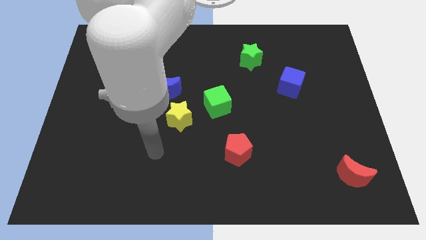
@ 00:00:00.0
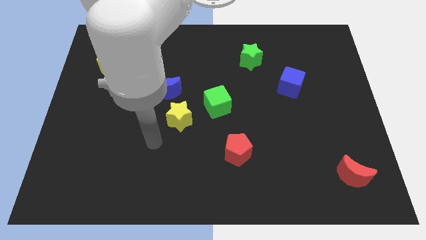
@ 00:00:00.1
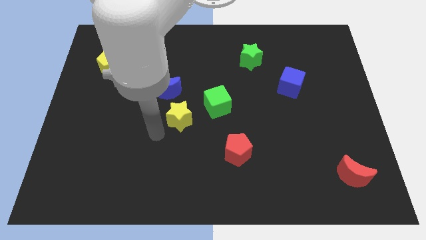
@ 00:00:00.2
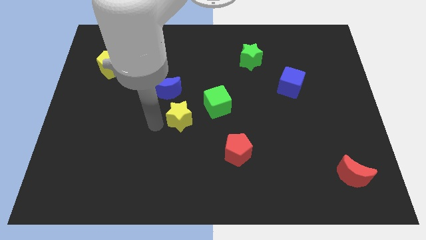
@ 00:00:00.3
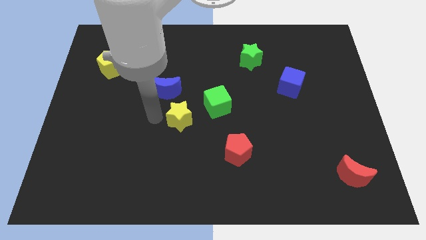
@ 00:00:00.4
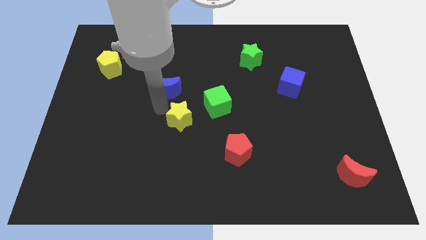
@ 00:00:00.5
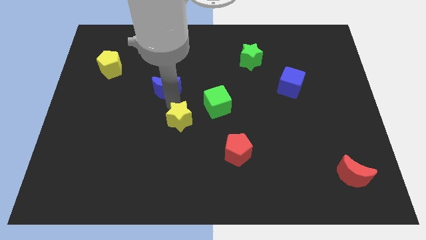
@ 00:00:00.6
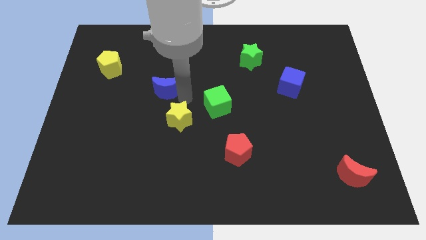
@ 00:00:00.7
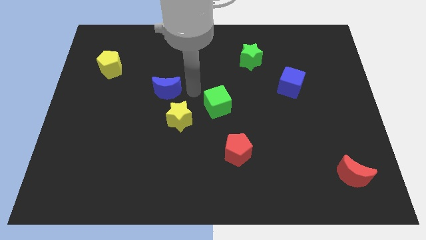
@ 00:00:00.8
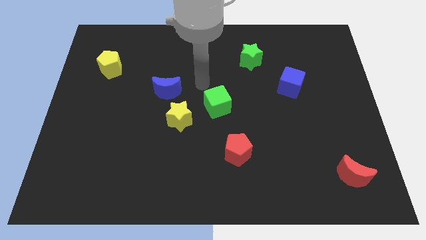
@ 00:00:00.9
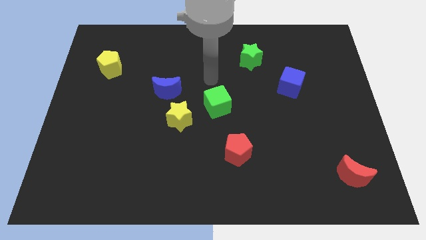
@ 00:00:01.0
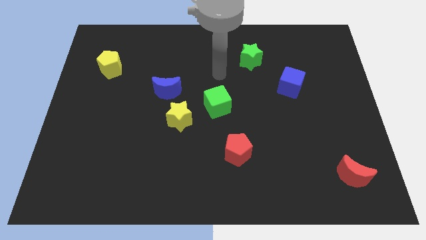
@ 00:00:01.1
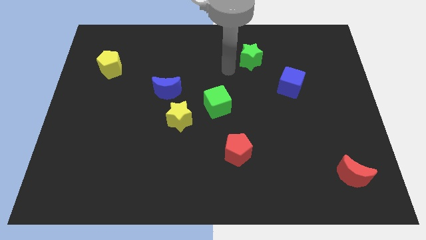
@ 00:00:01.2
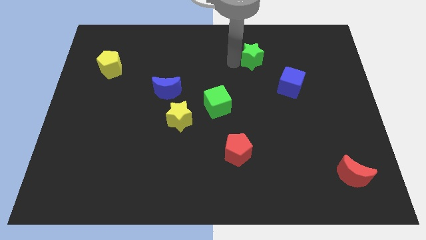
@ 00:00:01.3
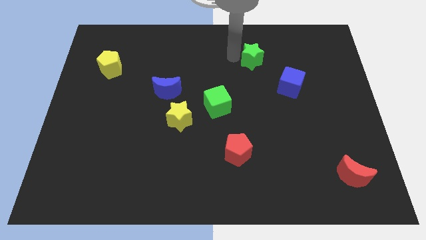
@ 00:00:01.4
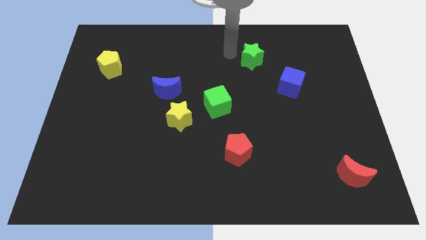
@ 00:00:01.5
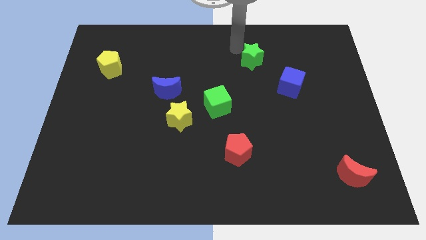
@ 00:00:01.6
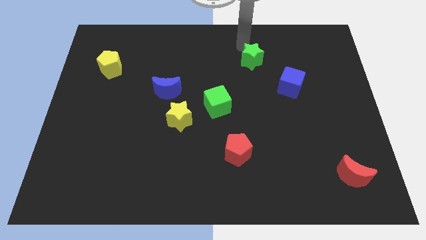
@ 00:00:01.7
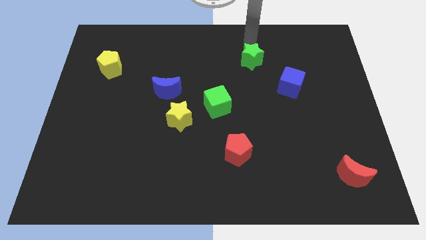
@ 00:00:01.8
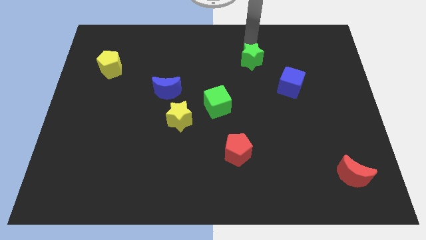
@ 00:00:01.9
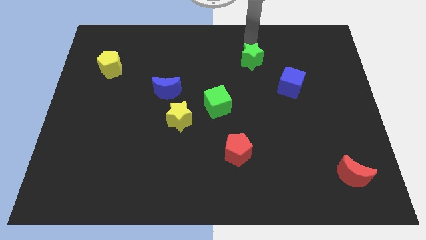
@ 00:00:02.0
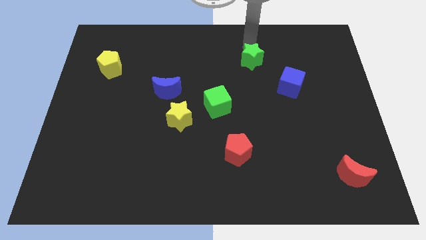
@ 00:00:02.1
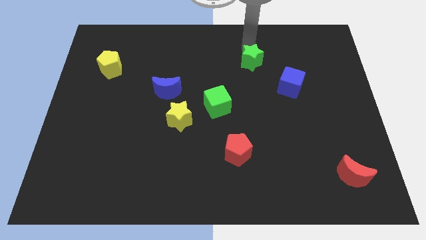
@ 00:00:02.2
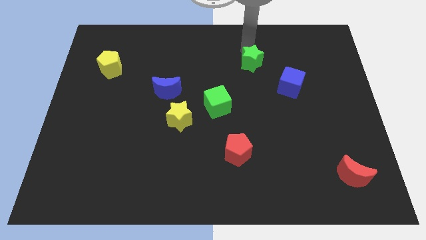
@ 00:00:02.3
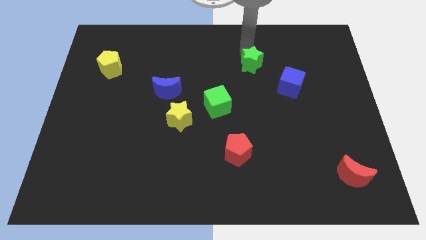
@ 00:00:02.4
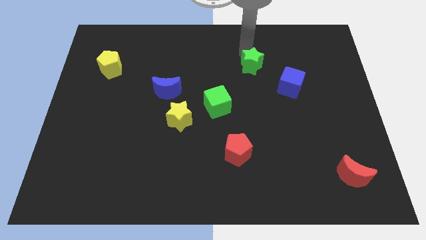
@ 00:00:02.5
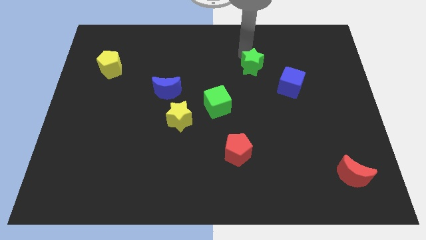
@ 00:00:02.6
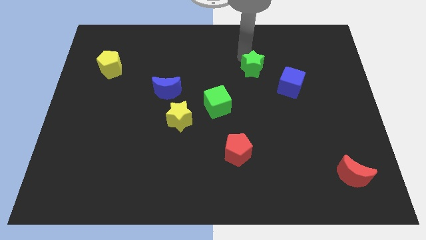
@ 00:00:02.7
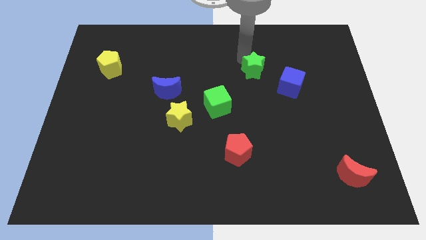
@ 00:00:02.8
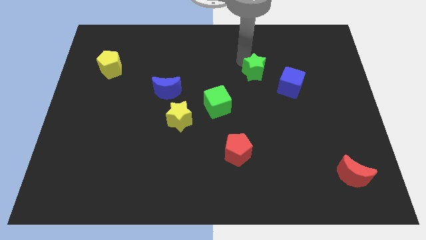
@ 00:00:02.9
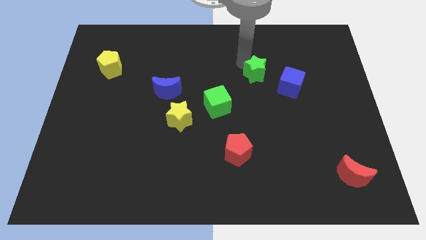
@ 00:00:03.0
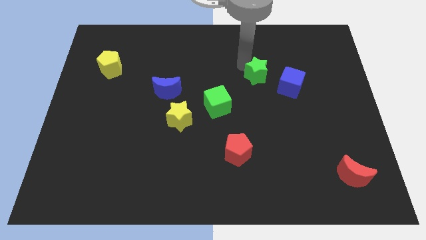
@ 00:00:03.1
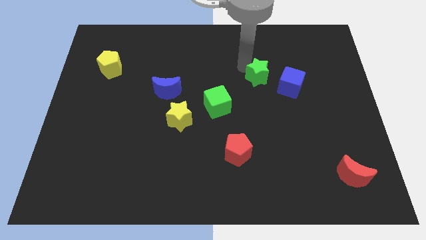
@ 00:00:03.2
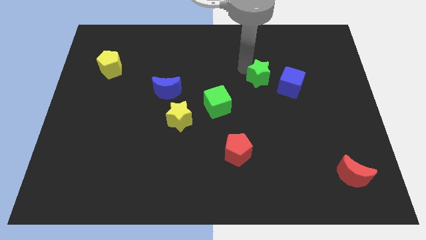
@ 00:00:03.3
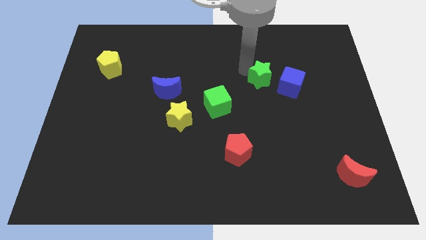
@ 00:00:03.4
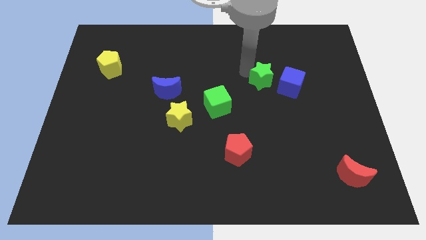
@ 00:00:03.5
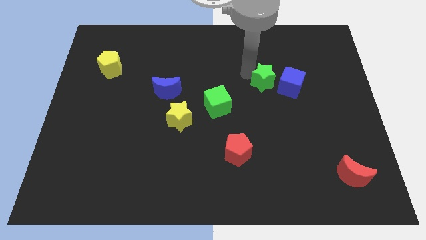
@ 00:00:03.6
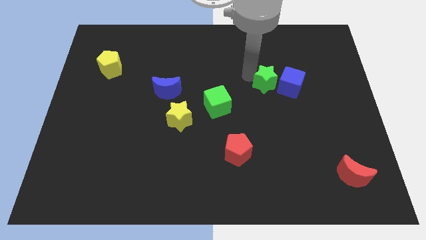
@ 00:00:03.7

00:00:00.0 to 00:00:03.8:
slightly move the green star diagonally down and to the right

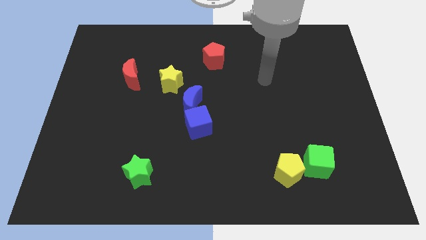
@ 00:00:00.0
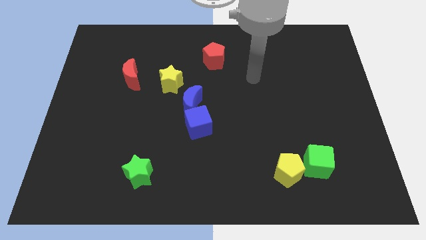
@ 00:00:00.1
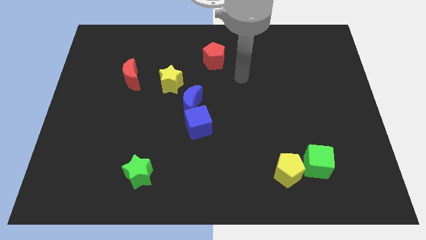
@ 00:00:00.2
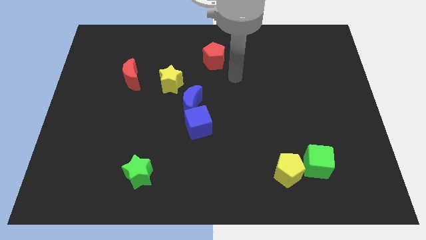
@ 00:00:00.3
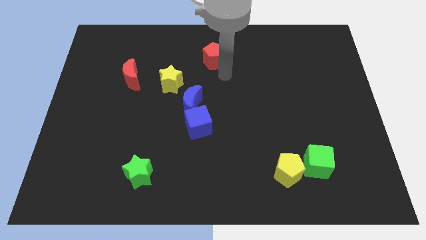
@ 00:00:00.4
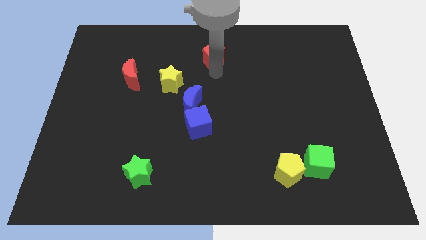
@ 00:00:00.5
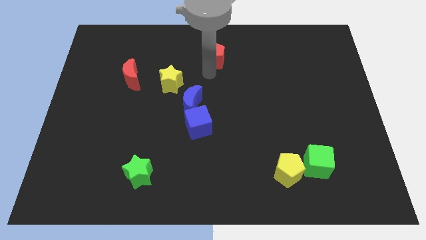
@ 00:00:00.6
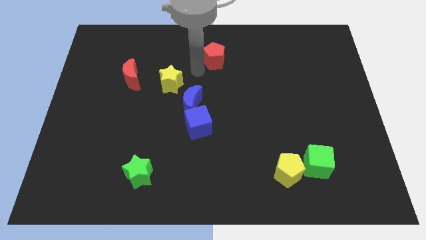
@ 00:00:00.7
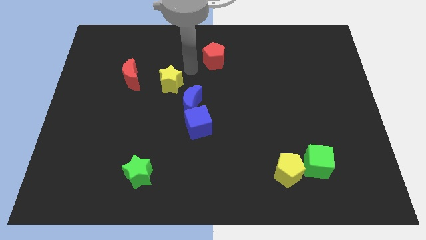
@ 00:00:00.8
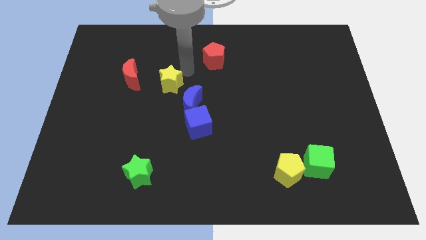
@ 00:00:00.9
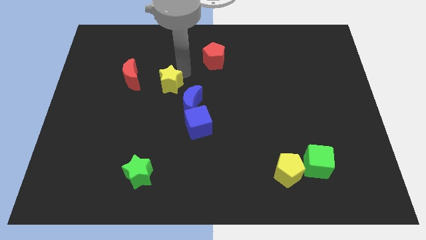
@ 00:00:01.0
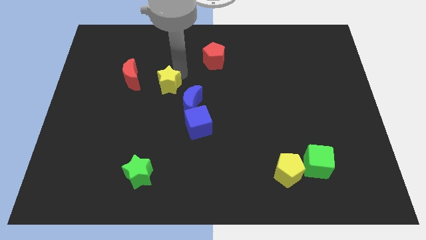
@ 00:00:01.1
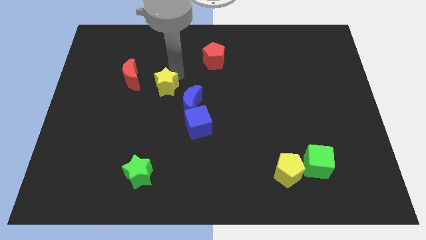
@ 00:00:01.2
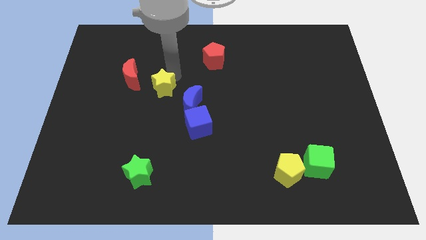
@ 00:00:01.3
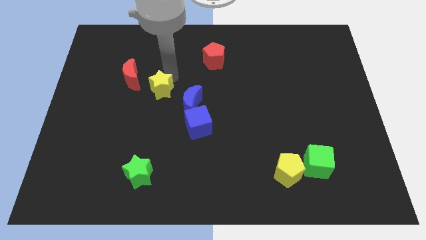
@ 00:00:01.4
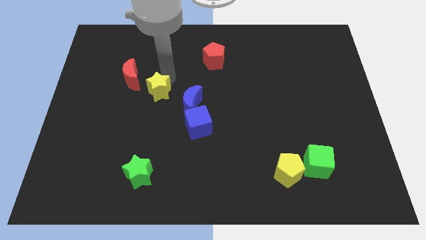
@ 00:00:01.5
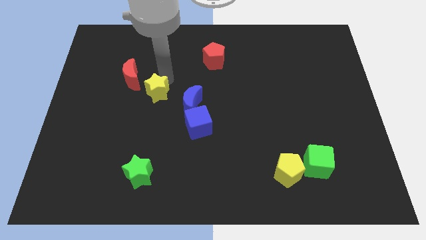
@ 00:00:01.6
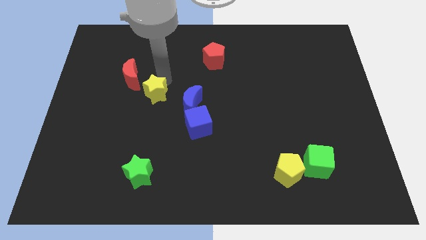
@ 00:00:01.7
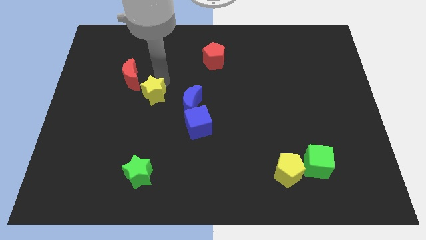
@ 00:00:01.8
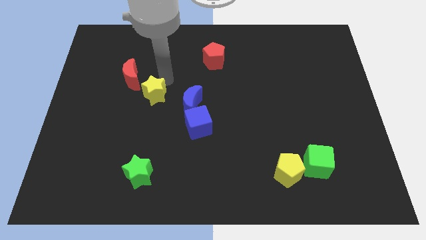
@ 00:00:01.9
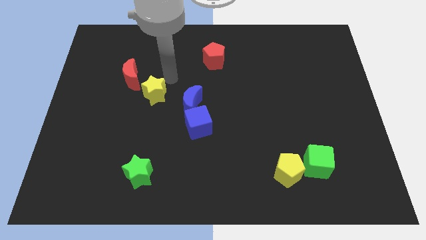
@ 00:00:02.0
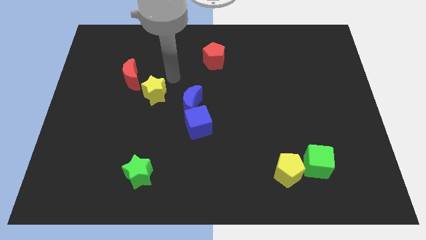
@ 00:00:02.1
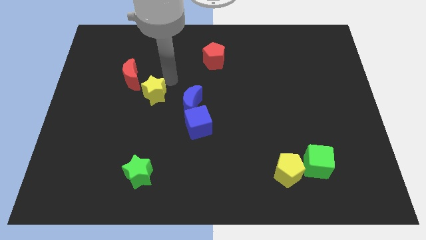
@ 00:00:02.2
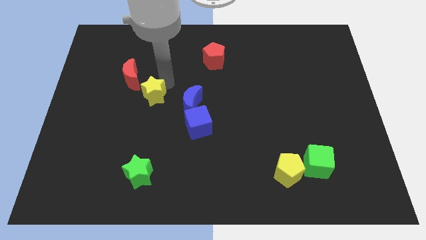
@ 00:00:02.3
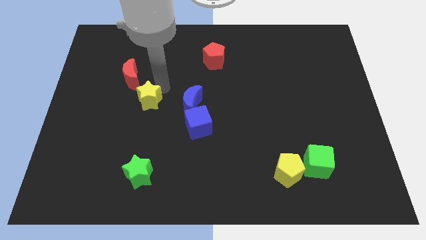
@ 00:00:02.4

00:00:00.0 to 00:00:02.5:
move the yellow star down and left diagonally slightly

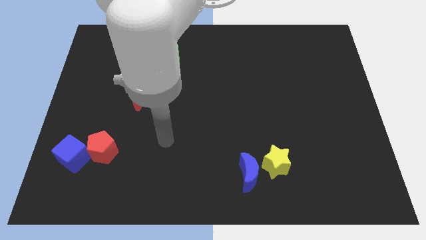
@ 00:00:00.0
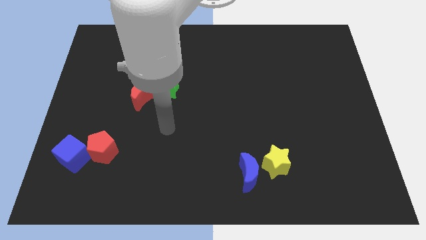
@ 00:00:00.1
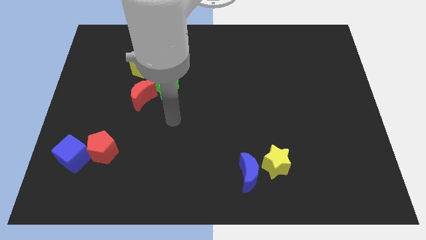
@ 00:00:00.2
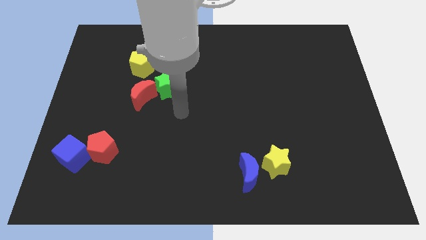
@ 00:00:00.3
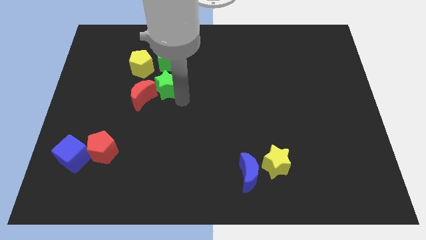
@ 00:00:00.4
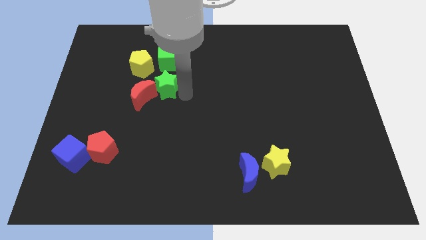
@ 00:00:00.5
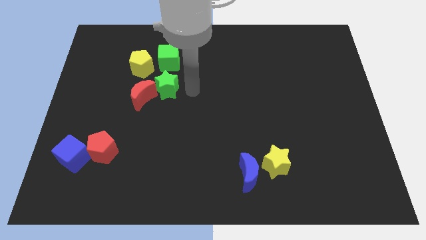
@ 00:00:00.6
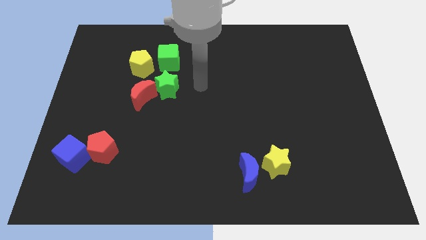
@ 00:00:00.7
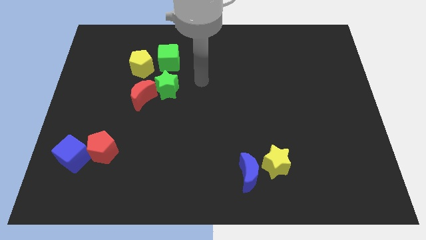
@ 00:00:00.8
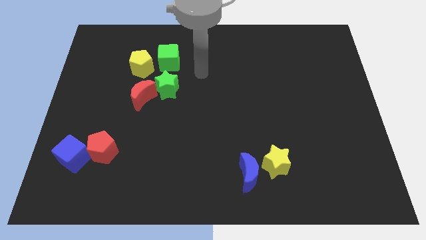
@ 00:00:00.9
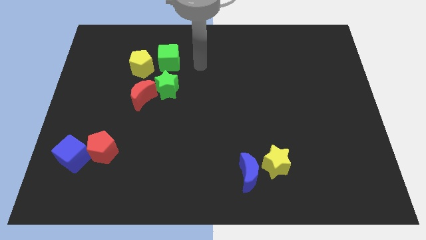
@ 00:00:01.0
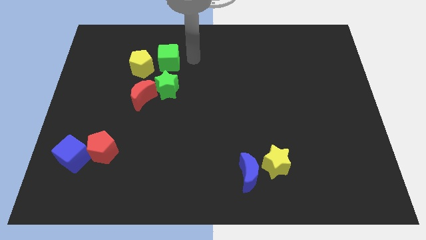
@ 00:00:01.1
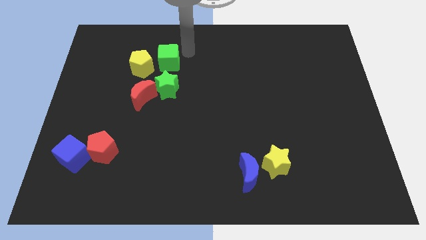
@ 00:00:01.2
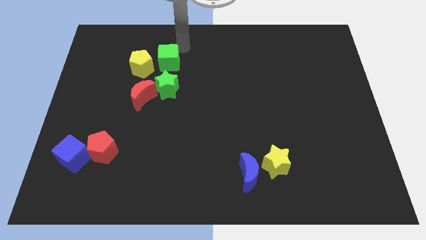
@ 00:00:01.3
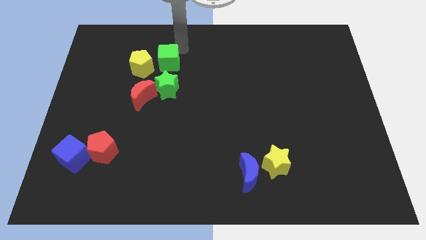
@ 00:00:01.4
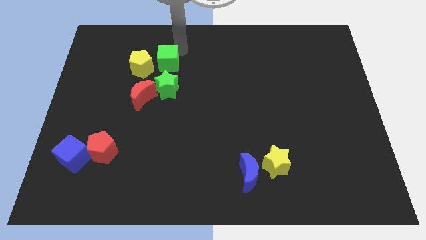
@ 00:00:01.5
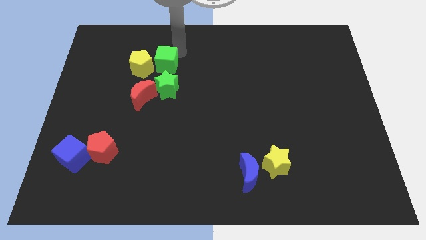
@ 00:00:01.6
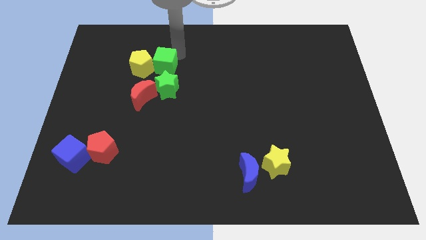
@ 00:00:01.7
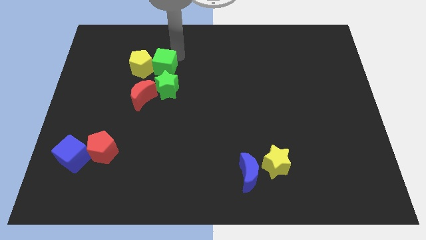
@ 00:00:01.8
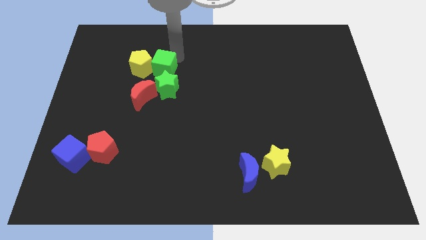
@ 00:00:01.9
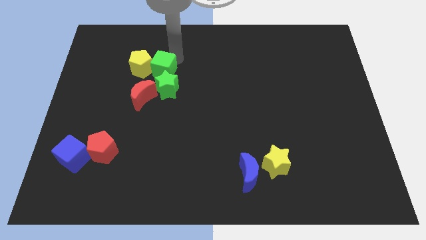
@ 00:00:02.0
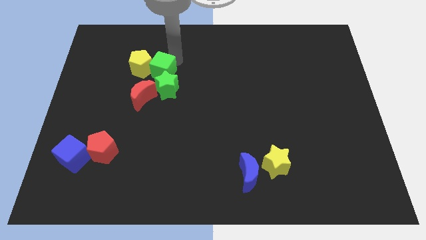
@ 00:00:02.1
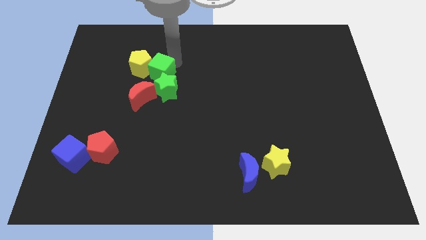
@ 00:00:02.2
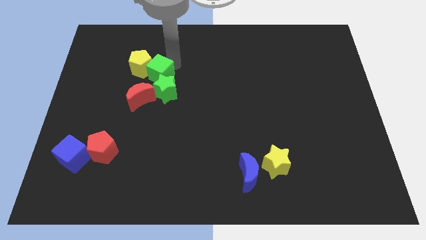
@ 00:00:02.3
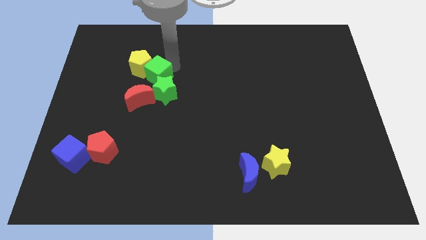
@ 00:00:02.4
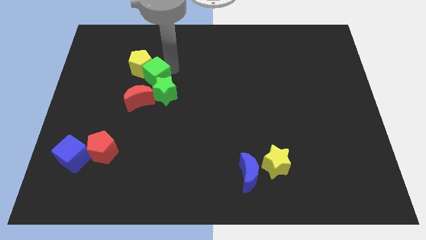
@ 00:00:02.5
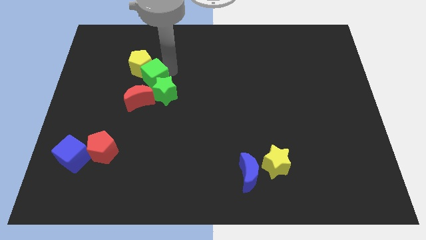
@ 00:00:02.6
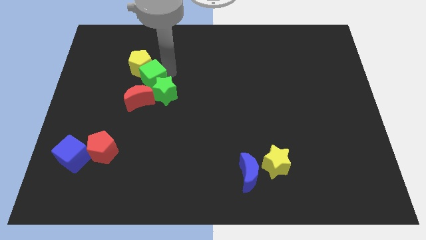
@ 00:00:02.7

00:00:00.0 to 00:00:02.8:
push the green cube diagonally down and left somewhat
